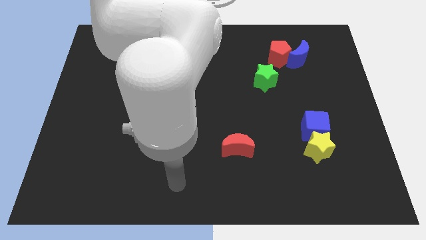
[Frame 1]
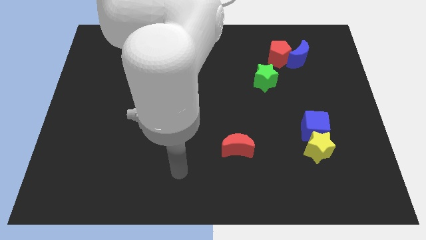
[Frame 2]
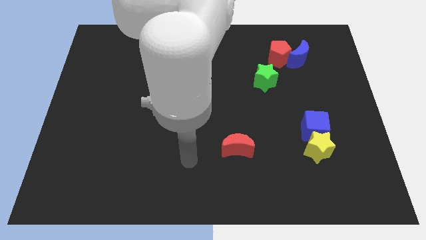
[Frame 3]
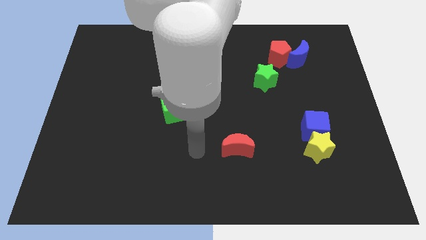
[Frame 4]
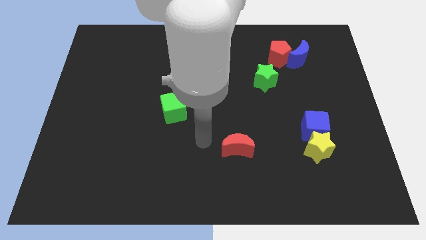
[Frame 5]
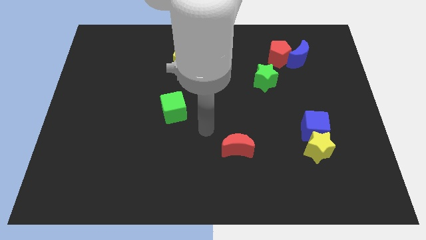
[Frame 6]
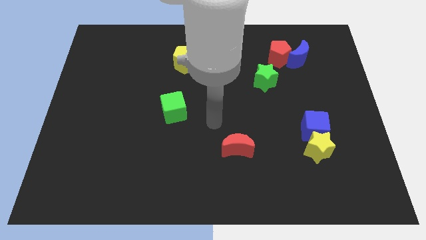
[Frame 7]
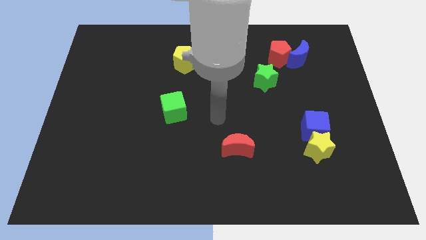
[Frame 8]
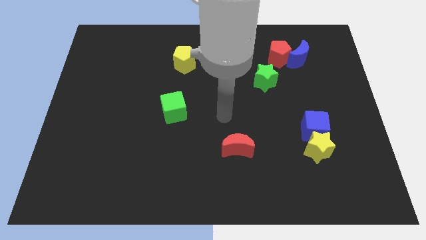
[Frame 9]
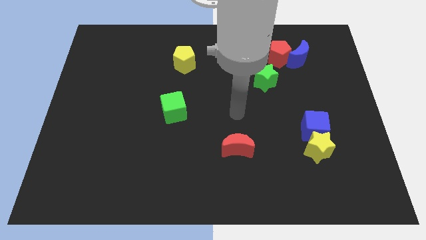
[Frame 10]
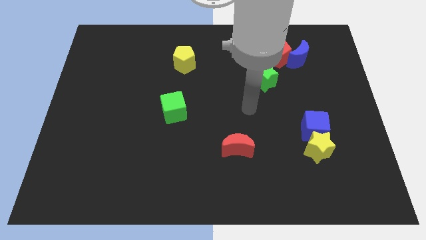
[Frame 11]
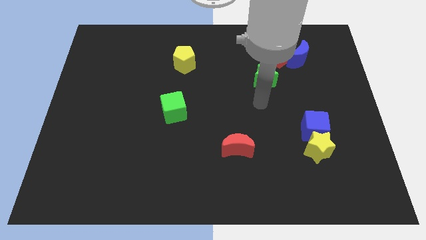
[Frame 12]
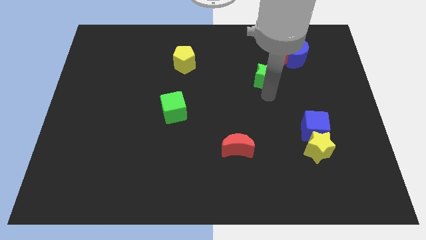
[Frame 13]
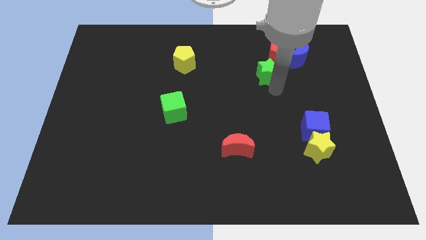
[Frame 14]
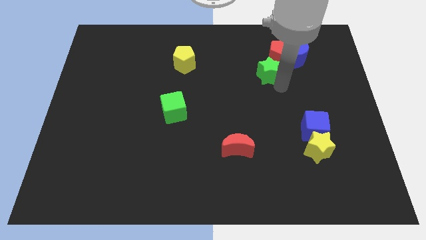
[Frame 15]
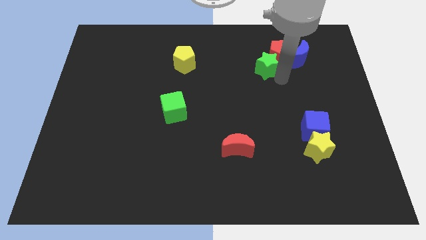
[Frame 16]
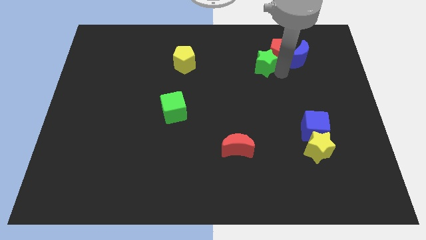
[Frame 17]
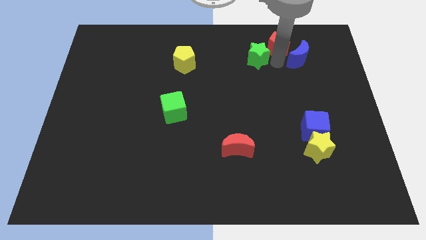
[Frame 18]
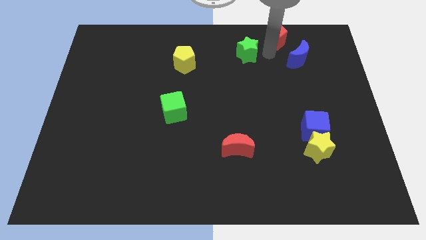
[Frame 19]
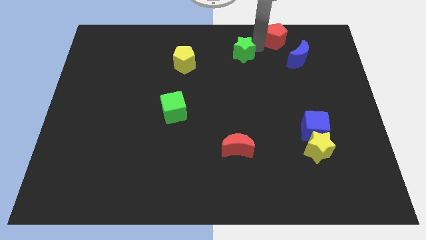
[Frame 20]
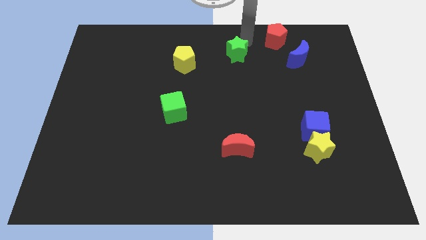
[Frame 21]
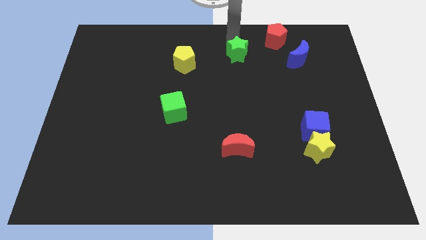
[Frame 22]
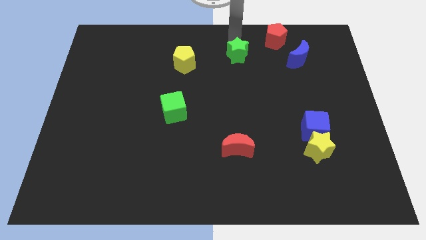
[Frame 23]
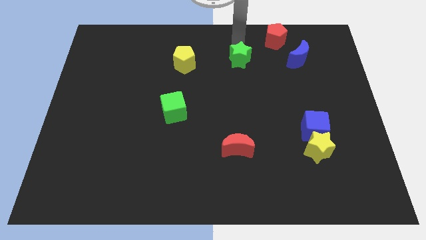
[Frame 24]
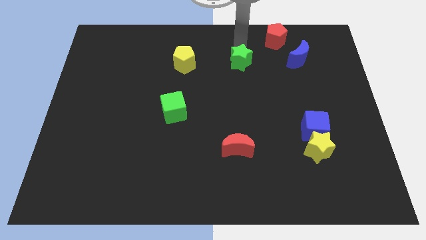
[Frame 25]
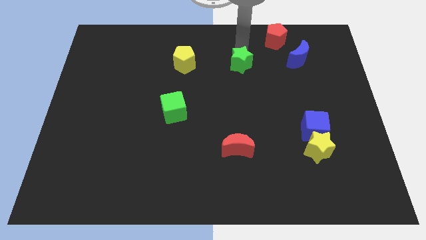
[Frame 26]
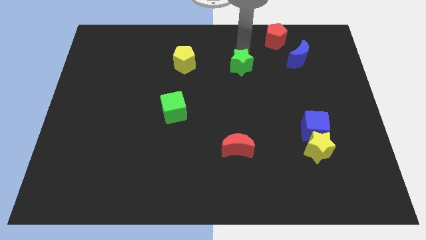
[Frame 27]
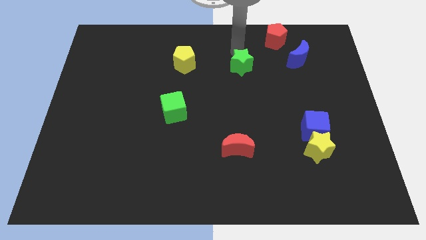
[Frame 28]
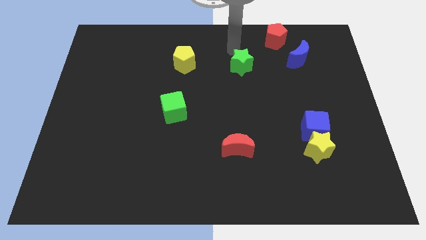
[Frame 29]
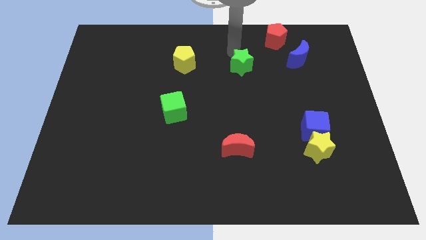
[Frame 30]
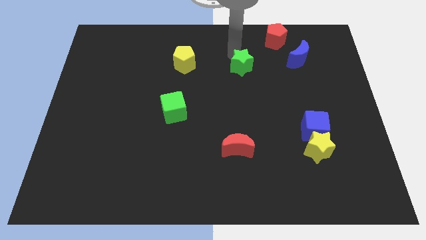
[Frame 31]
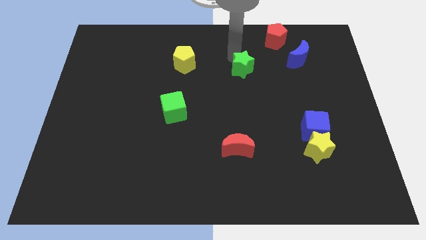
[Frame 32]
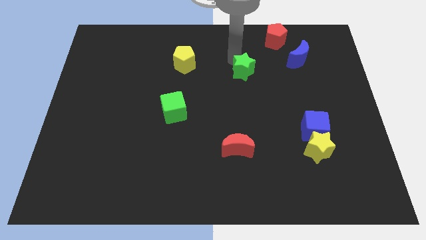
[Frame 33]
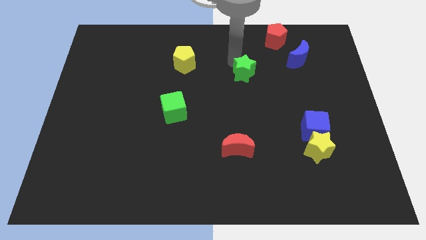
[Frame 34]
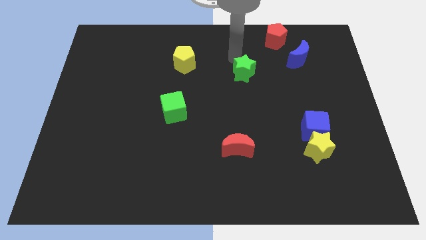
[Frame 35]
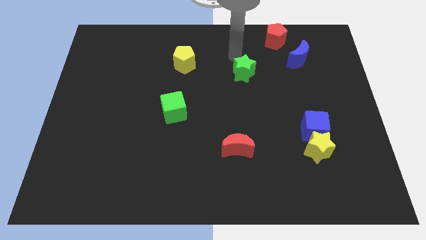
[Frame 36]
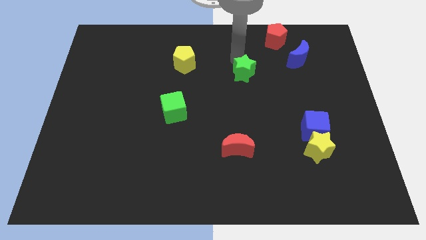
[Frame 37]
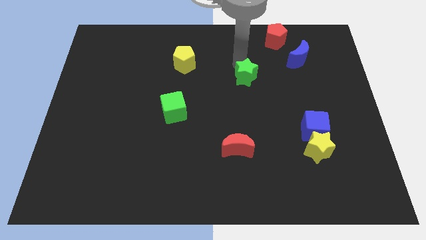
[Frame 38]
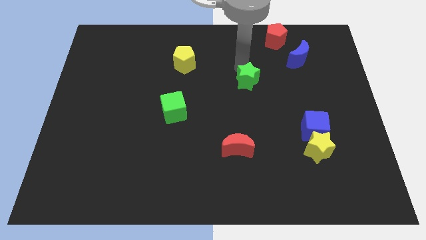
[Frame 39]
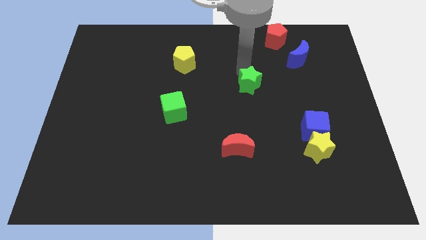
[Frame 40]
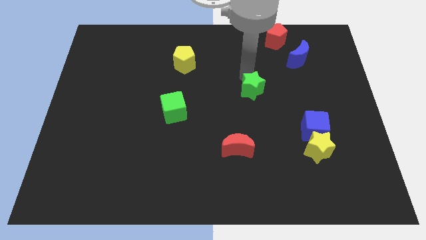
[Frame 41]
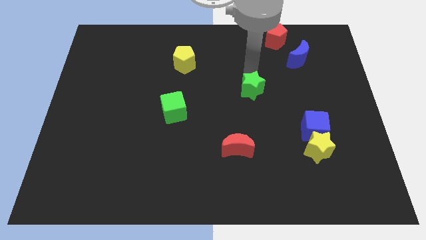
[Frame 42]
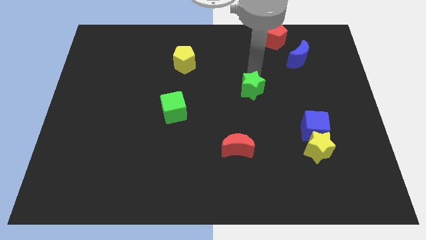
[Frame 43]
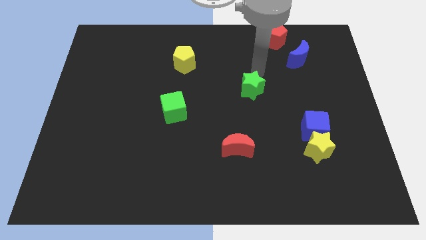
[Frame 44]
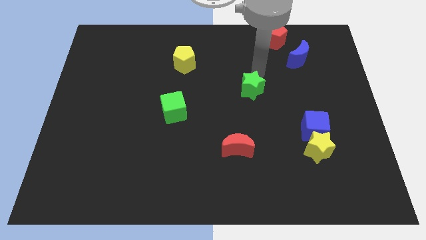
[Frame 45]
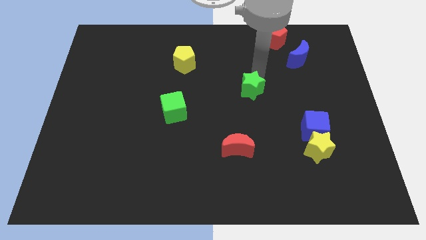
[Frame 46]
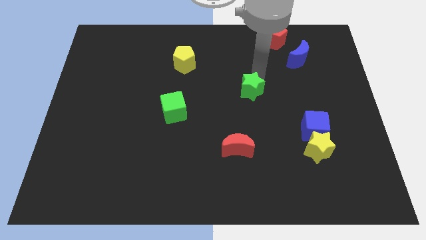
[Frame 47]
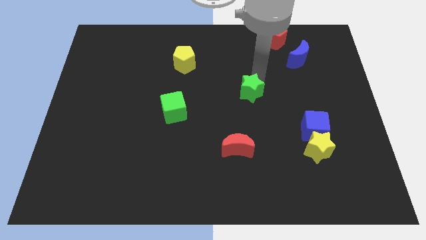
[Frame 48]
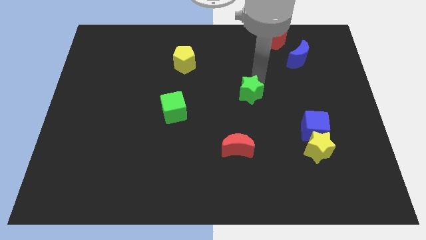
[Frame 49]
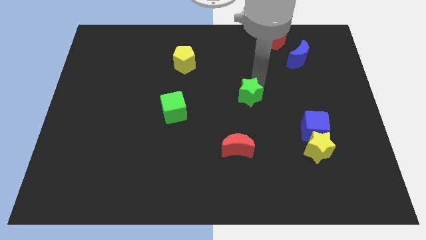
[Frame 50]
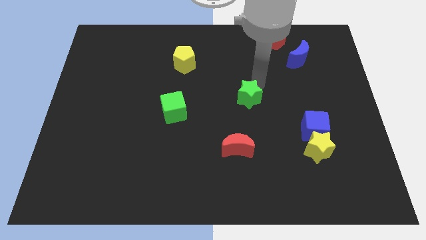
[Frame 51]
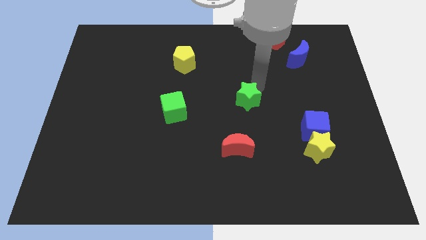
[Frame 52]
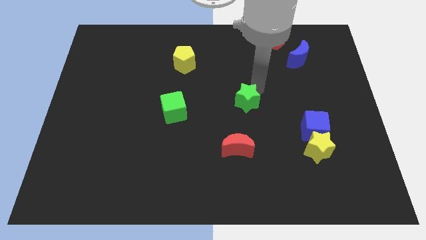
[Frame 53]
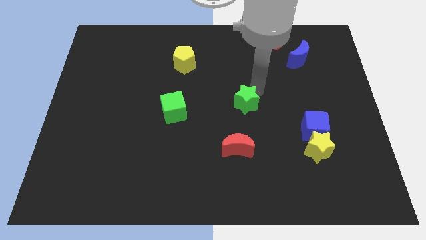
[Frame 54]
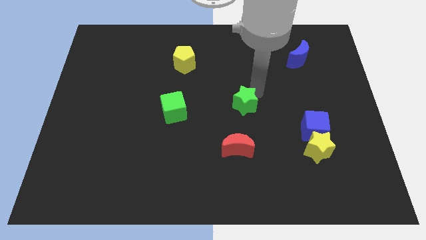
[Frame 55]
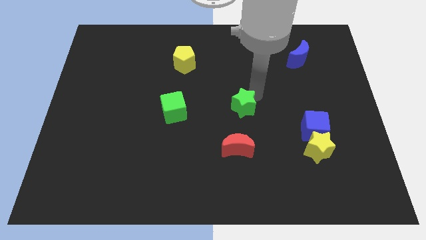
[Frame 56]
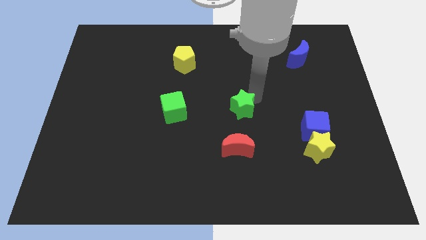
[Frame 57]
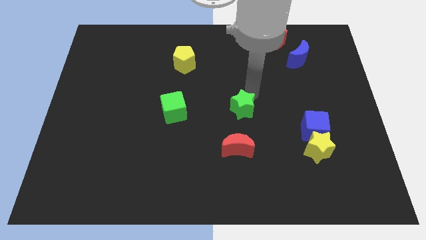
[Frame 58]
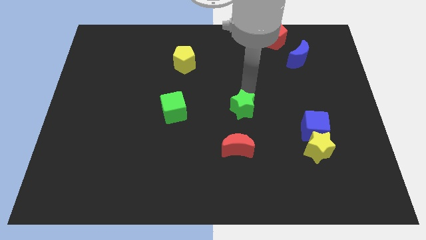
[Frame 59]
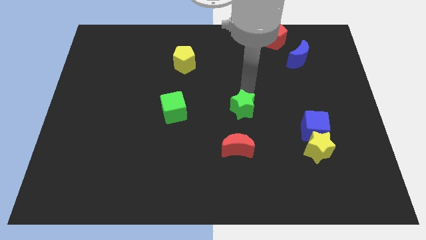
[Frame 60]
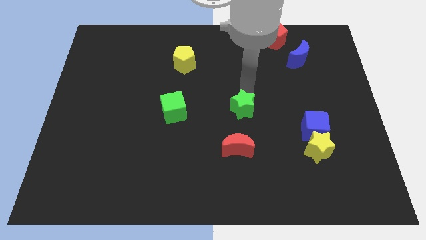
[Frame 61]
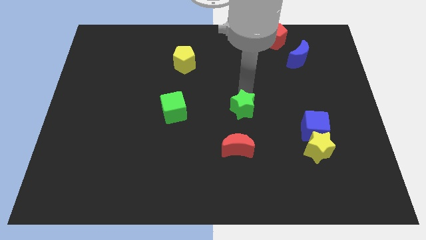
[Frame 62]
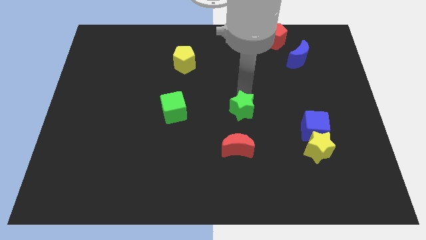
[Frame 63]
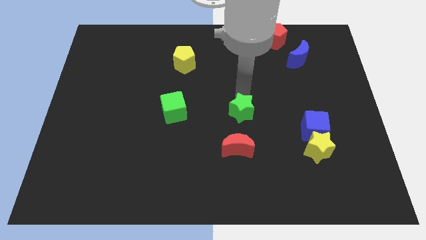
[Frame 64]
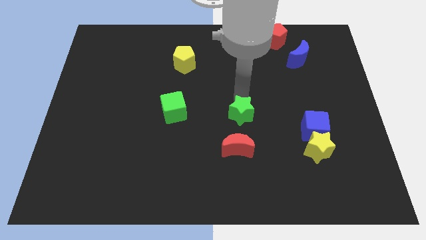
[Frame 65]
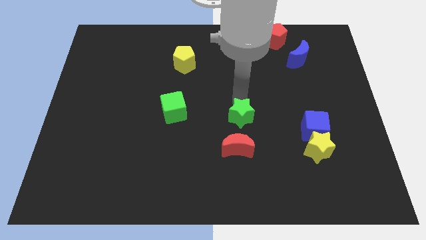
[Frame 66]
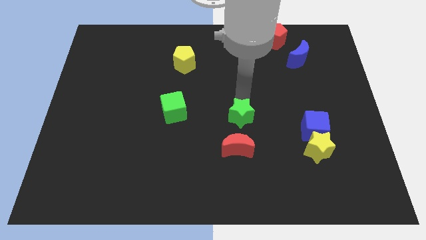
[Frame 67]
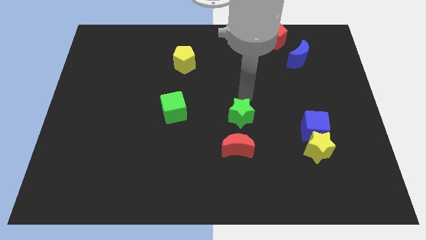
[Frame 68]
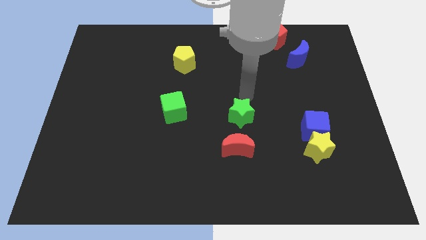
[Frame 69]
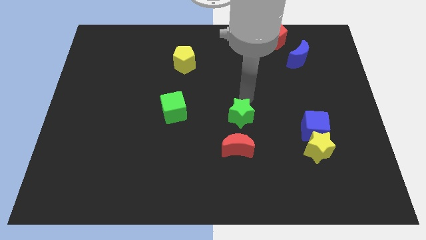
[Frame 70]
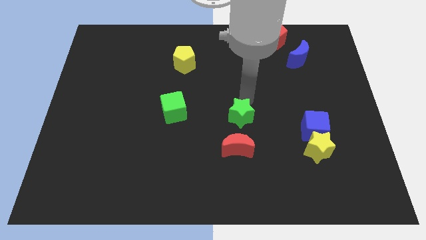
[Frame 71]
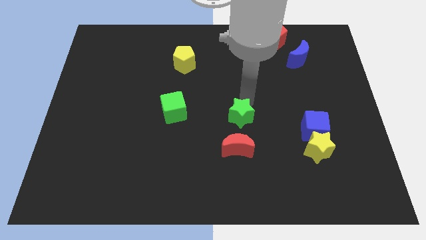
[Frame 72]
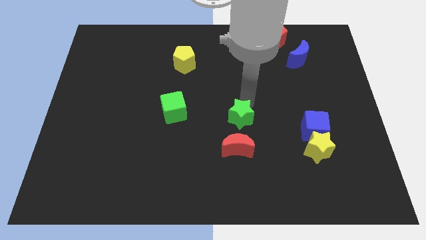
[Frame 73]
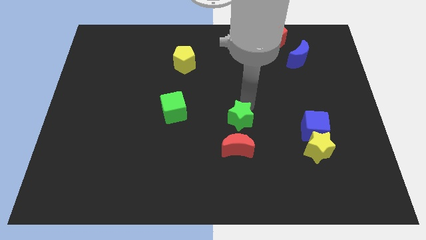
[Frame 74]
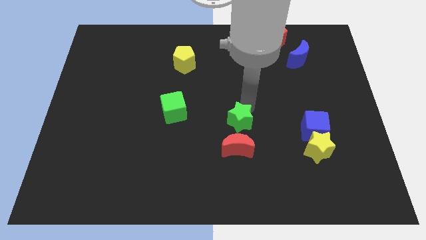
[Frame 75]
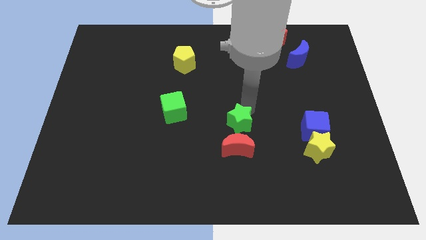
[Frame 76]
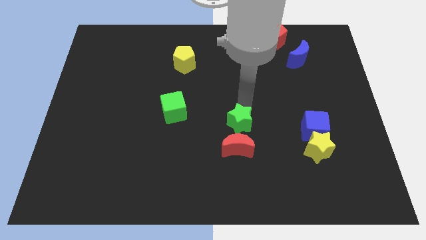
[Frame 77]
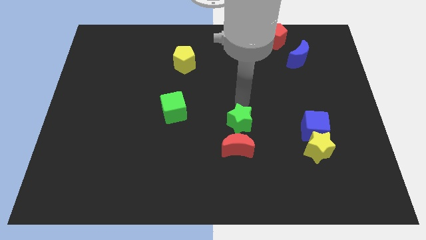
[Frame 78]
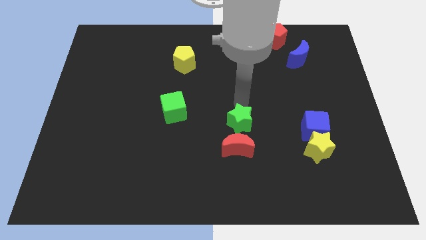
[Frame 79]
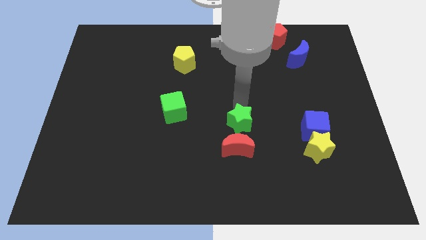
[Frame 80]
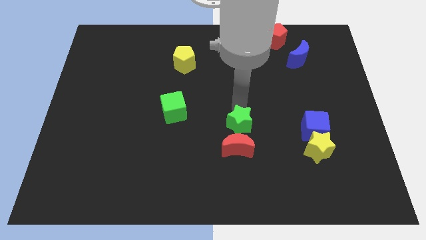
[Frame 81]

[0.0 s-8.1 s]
move the green star towards the red moon
